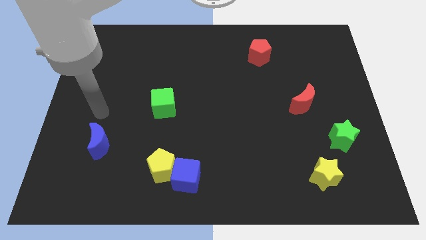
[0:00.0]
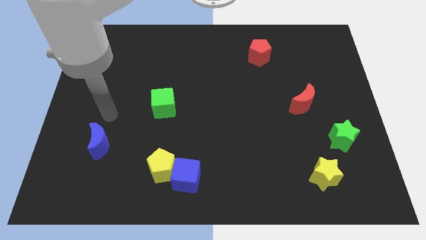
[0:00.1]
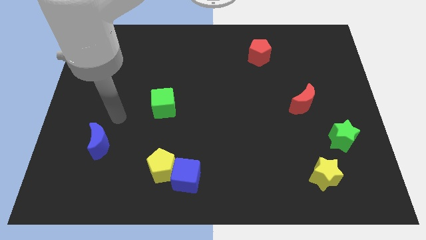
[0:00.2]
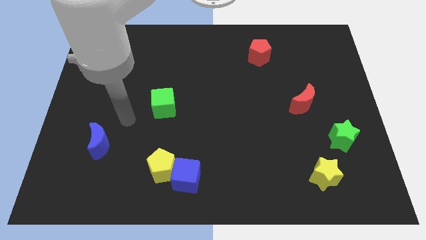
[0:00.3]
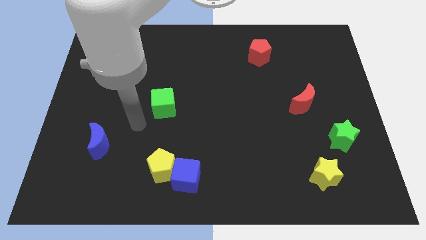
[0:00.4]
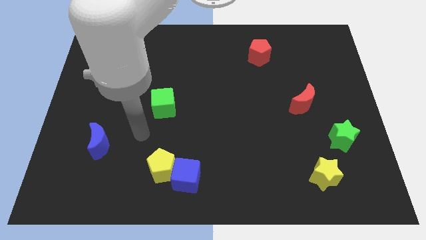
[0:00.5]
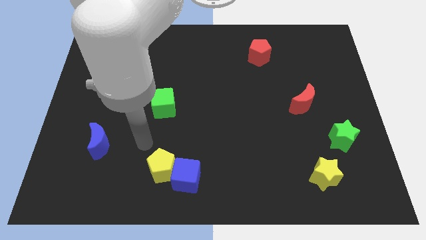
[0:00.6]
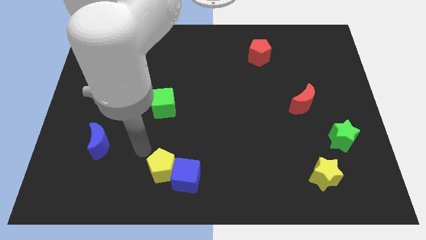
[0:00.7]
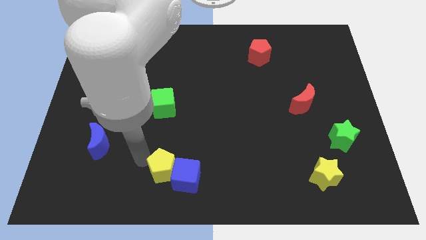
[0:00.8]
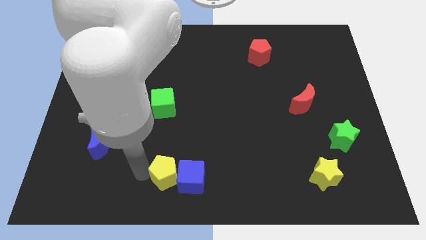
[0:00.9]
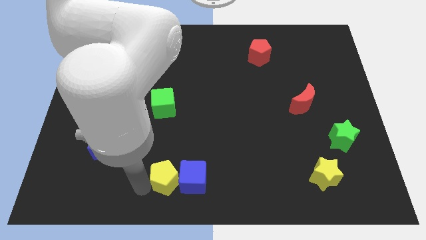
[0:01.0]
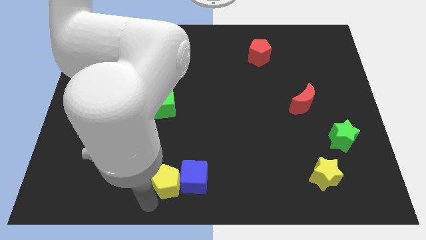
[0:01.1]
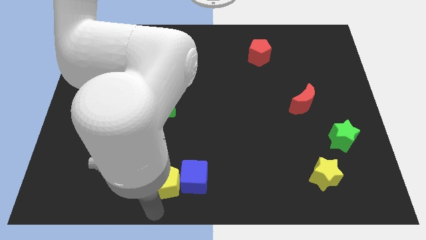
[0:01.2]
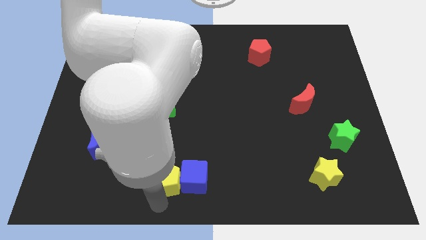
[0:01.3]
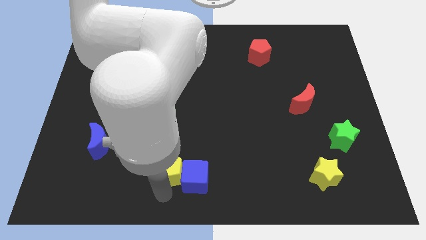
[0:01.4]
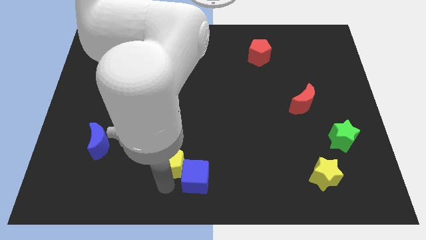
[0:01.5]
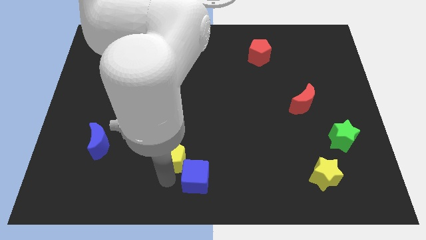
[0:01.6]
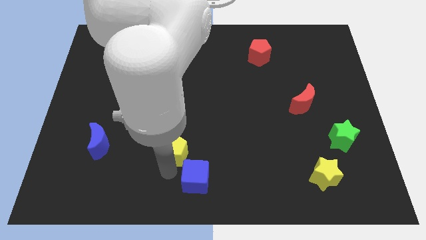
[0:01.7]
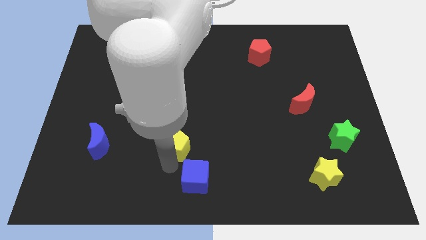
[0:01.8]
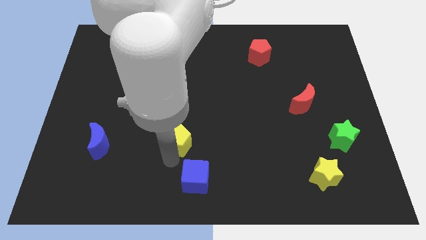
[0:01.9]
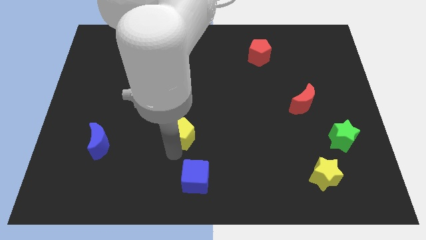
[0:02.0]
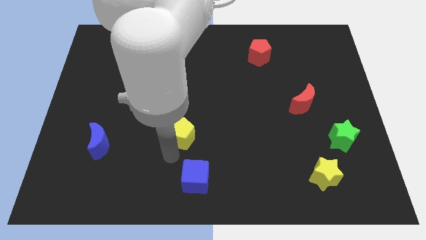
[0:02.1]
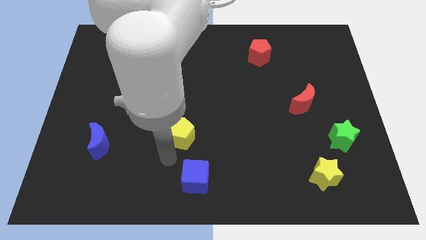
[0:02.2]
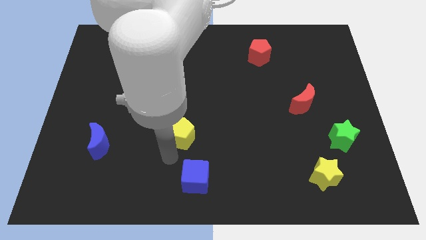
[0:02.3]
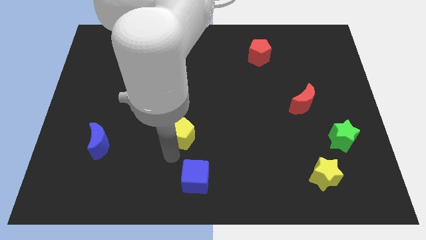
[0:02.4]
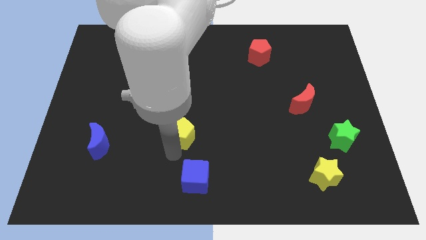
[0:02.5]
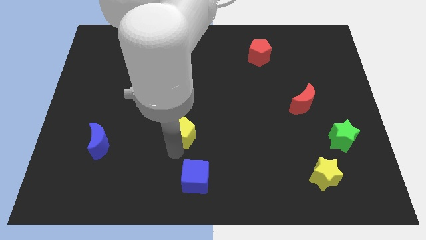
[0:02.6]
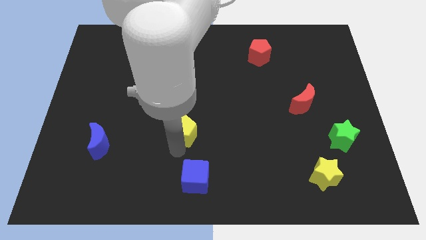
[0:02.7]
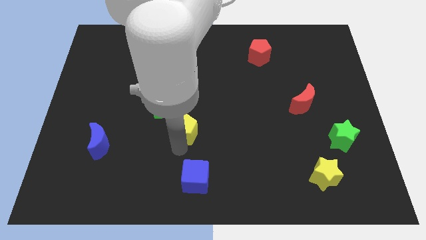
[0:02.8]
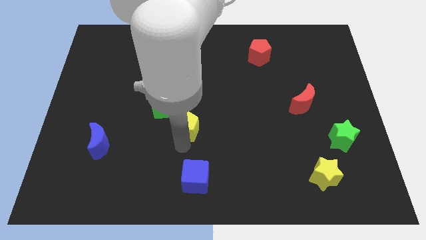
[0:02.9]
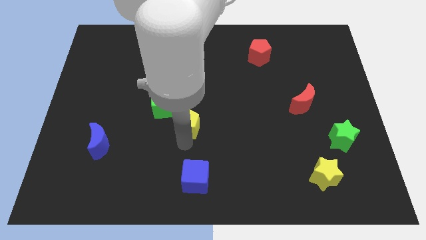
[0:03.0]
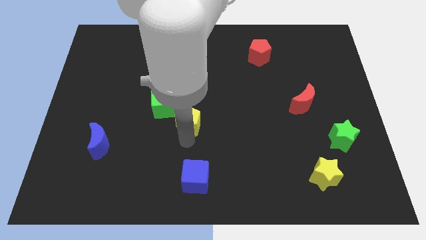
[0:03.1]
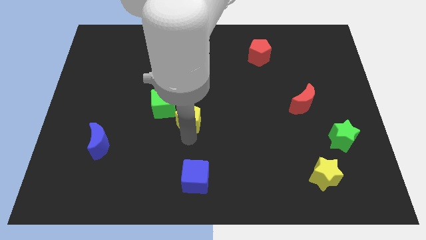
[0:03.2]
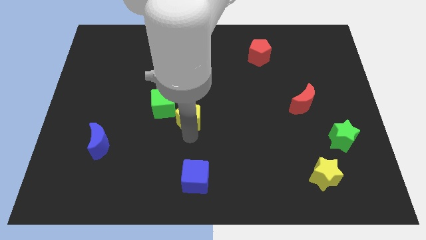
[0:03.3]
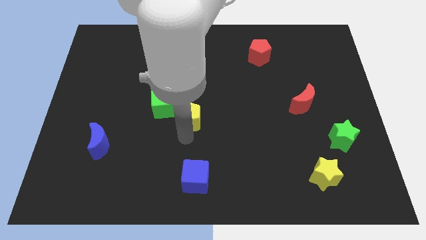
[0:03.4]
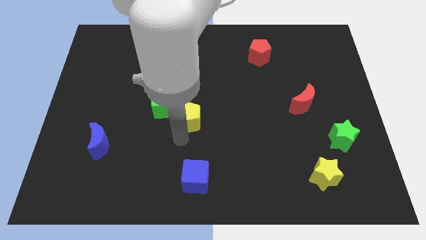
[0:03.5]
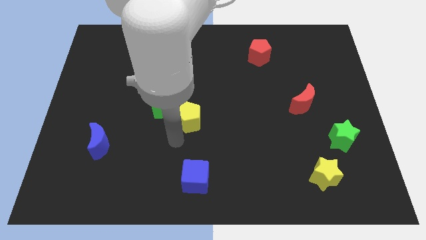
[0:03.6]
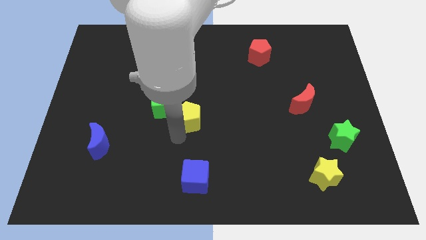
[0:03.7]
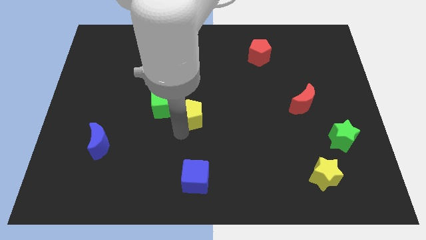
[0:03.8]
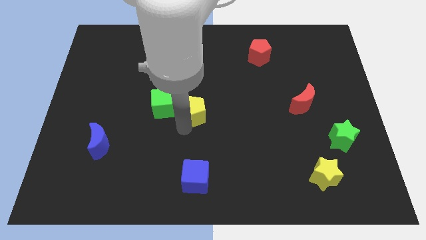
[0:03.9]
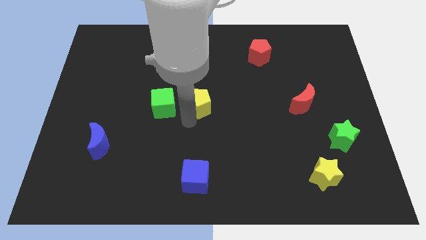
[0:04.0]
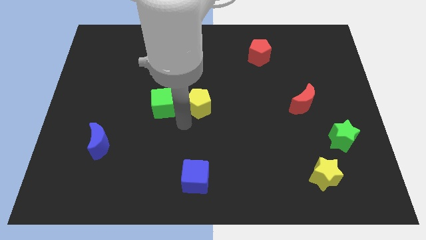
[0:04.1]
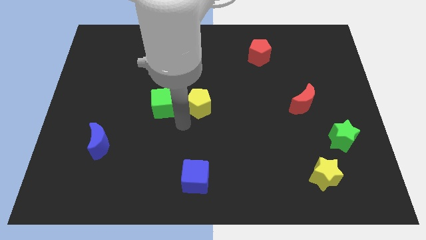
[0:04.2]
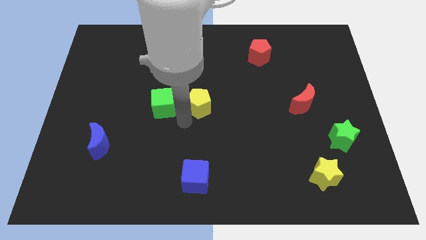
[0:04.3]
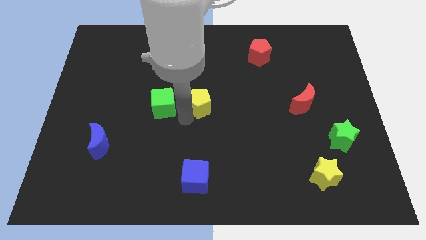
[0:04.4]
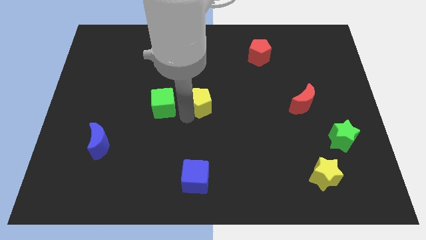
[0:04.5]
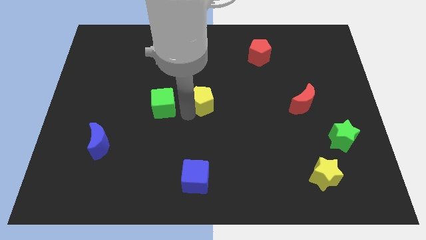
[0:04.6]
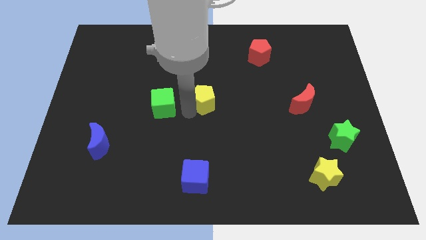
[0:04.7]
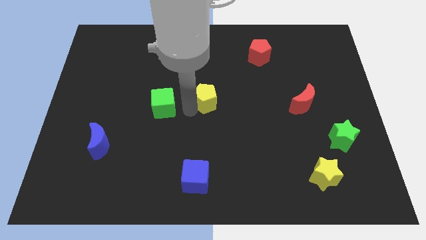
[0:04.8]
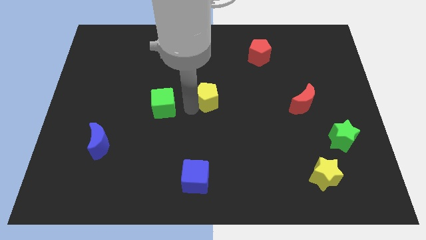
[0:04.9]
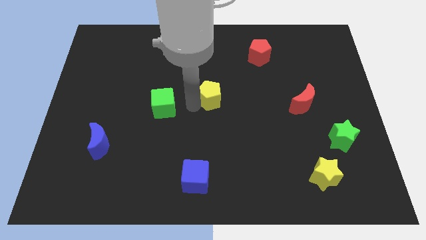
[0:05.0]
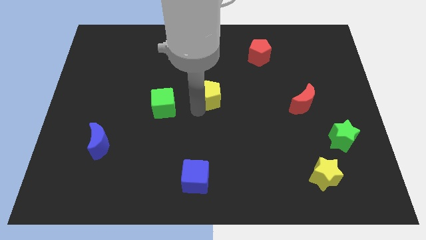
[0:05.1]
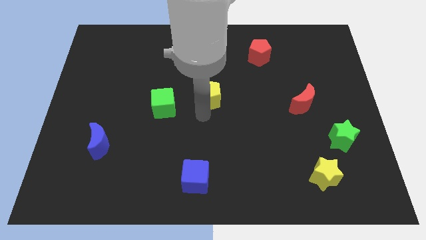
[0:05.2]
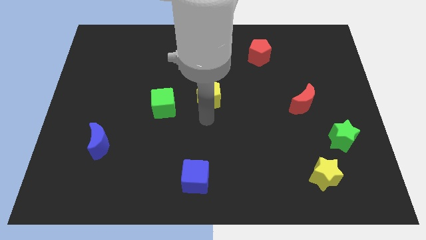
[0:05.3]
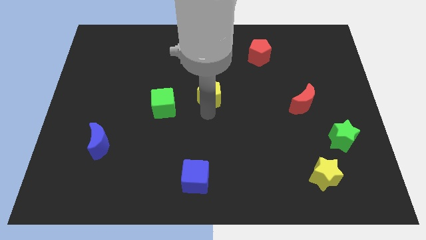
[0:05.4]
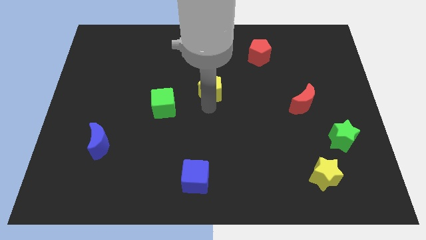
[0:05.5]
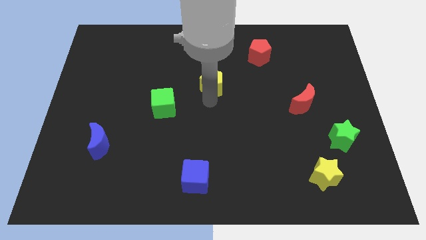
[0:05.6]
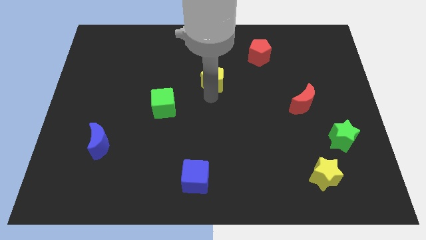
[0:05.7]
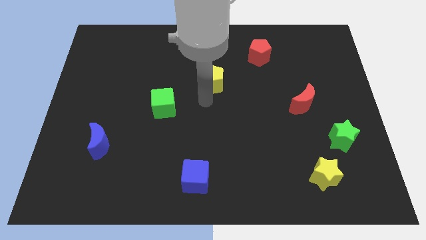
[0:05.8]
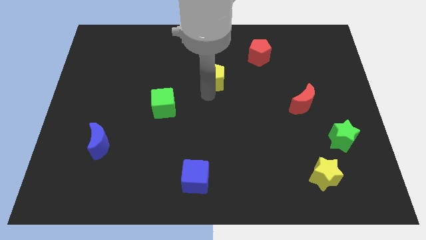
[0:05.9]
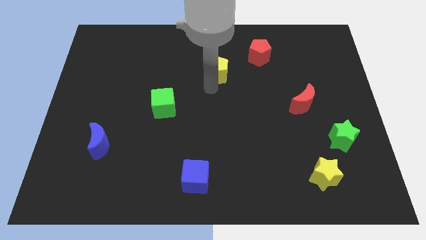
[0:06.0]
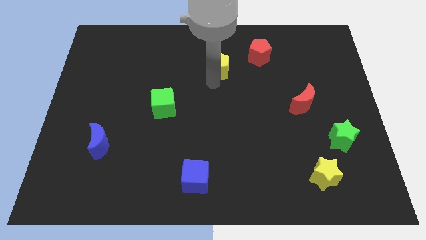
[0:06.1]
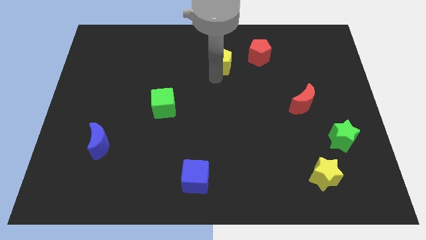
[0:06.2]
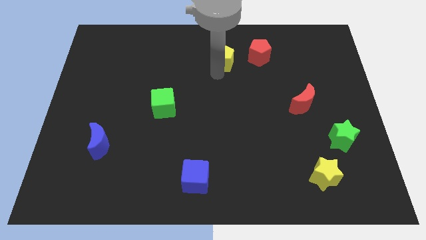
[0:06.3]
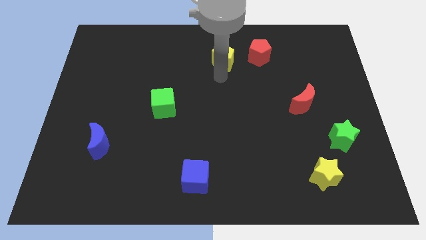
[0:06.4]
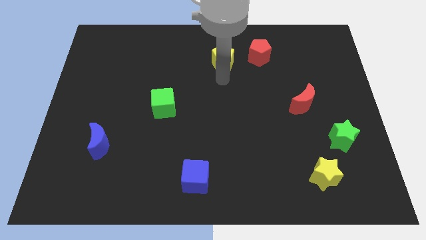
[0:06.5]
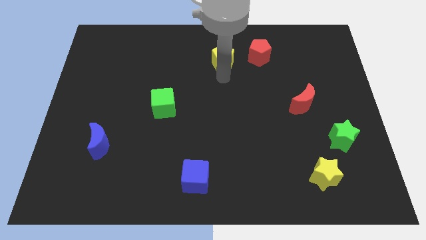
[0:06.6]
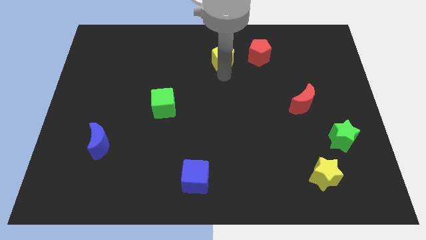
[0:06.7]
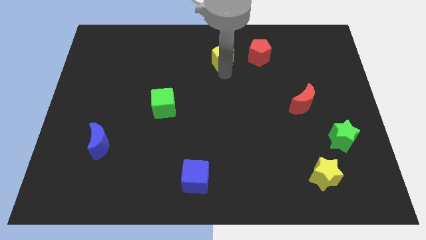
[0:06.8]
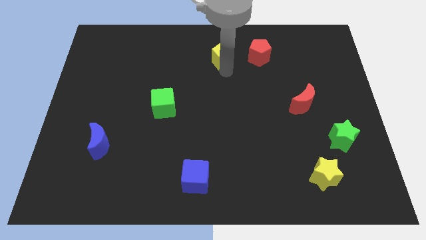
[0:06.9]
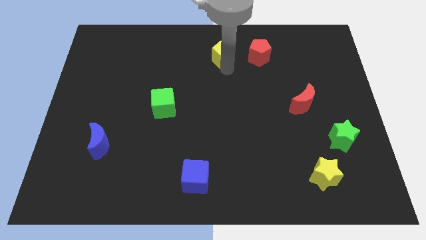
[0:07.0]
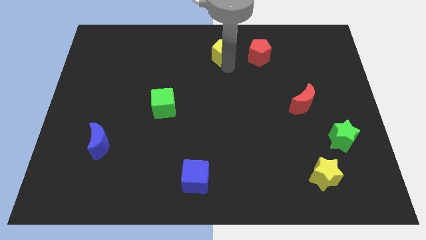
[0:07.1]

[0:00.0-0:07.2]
push the yellow pentagon to the top
